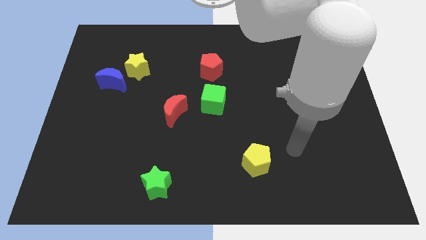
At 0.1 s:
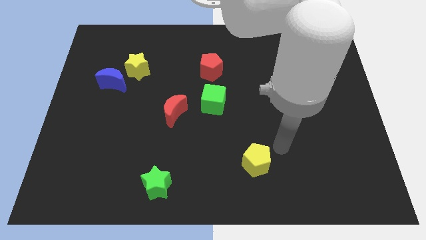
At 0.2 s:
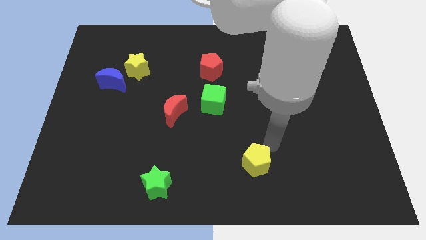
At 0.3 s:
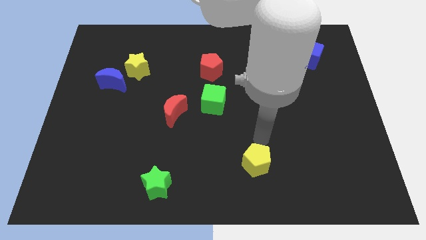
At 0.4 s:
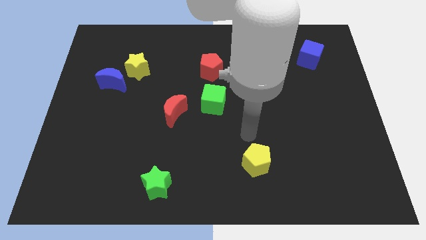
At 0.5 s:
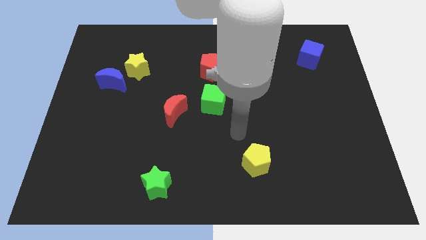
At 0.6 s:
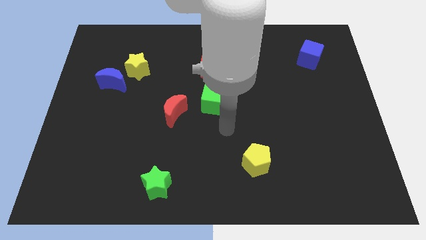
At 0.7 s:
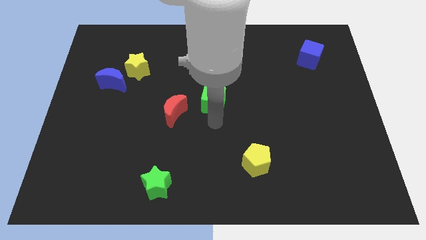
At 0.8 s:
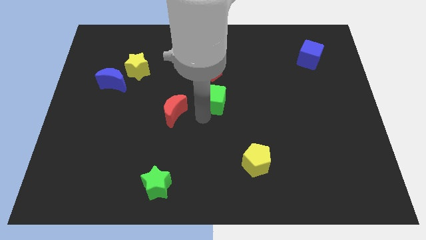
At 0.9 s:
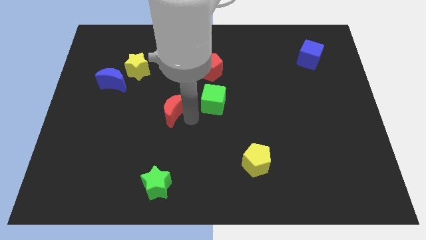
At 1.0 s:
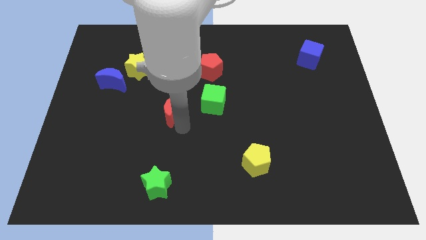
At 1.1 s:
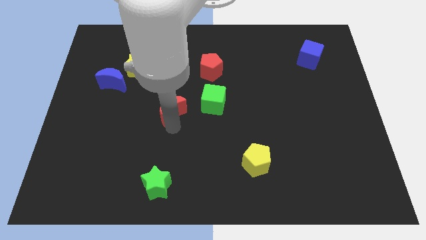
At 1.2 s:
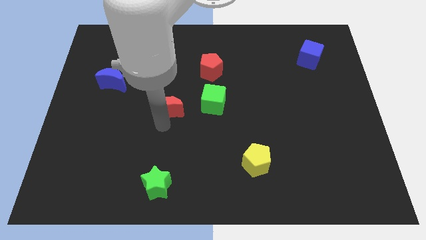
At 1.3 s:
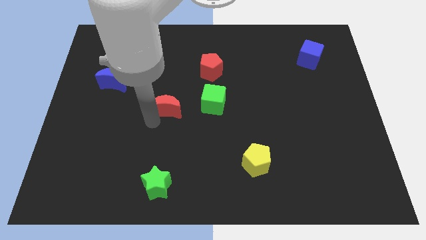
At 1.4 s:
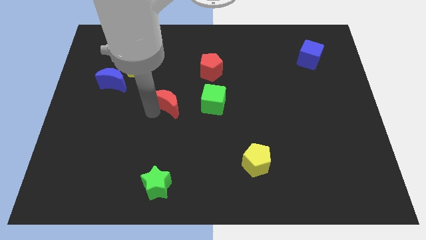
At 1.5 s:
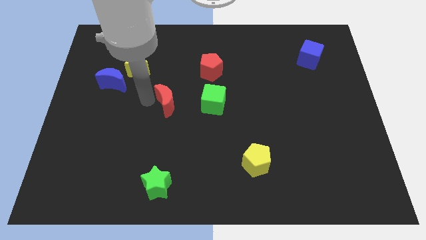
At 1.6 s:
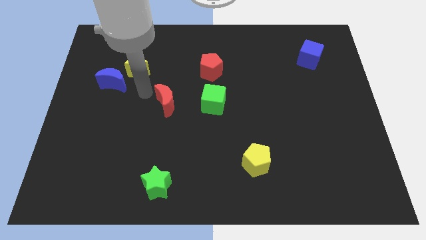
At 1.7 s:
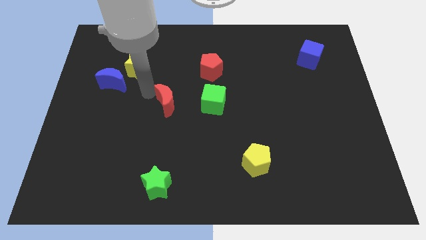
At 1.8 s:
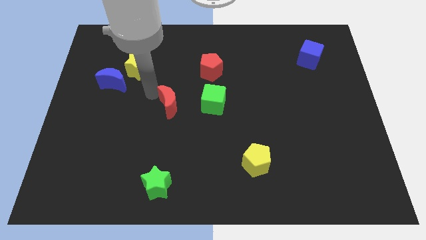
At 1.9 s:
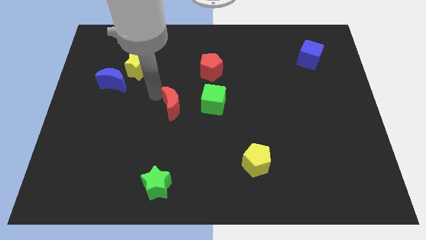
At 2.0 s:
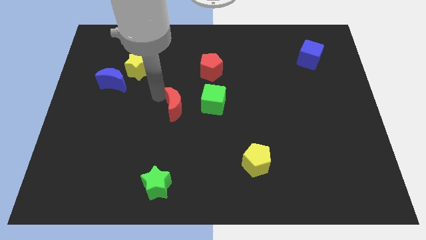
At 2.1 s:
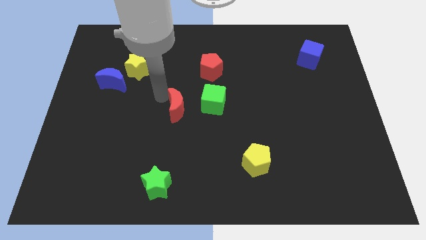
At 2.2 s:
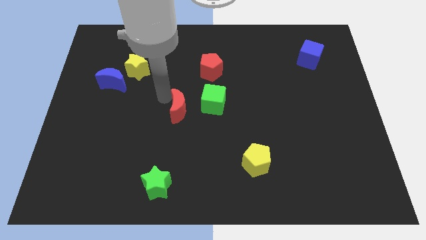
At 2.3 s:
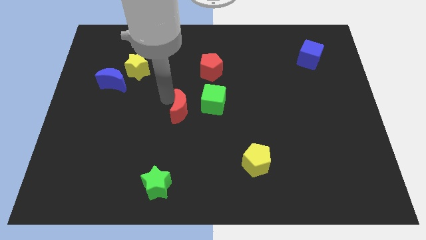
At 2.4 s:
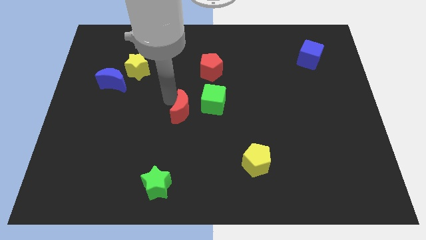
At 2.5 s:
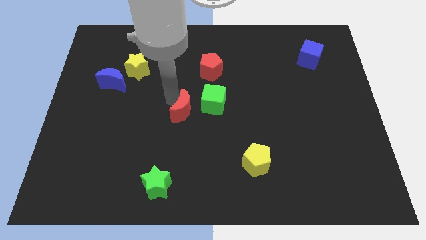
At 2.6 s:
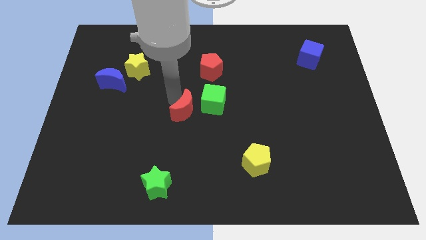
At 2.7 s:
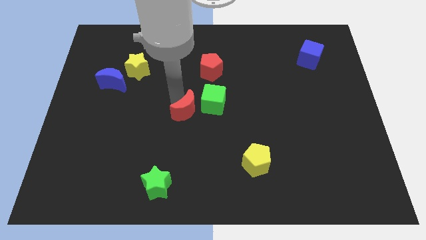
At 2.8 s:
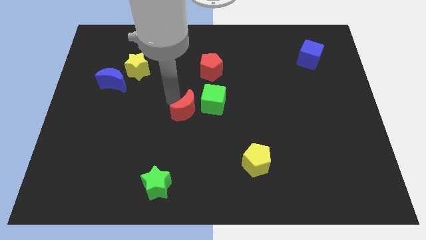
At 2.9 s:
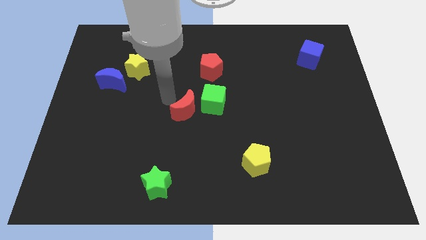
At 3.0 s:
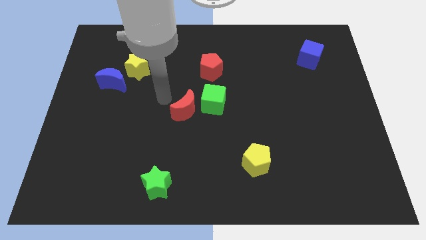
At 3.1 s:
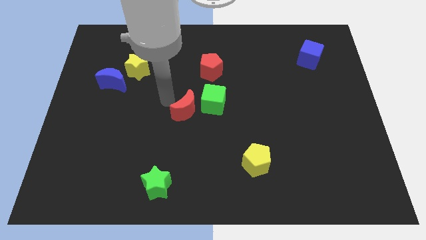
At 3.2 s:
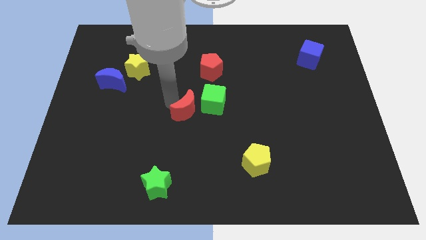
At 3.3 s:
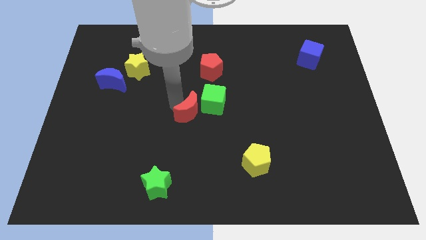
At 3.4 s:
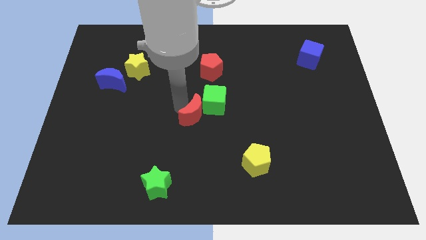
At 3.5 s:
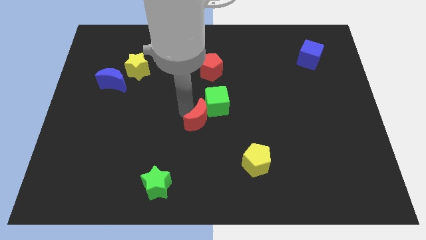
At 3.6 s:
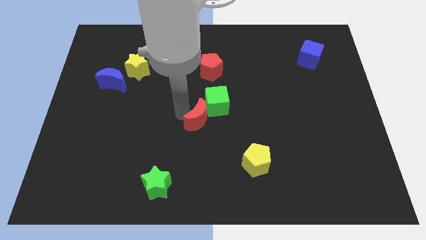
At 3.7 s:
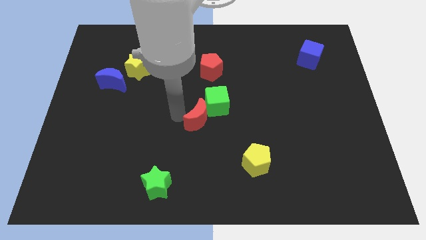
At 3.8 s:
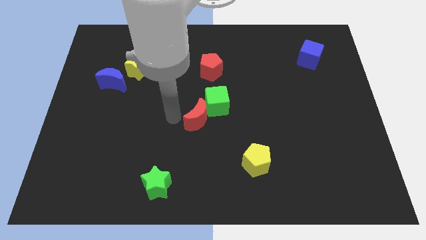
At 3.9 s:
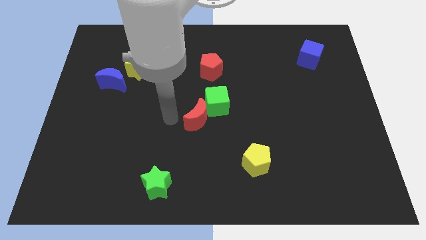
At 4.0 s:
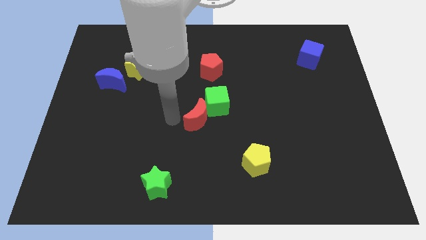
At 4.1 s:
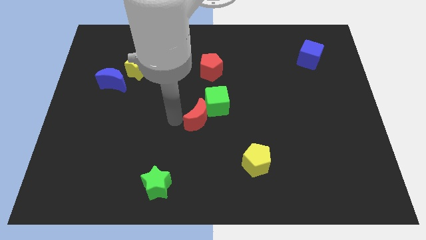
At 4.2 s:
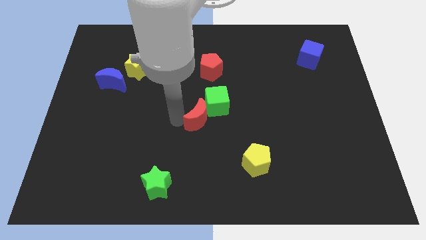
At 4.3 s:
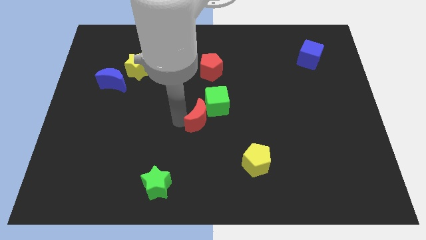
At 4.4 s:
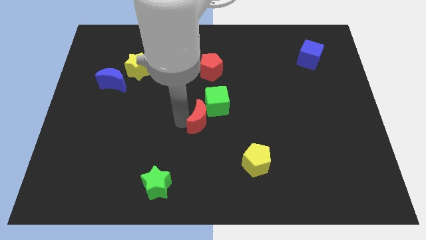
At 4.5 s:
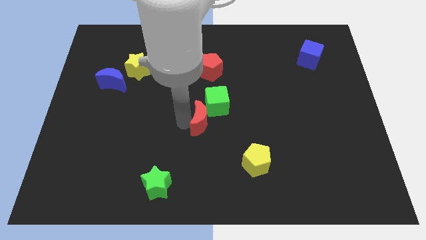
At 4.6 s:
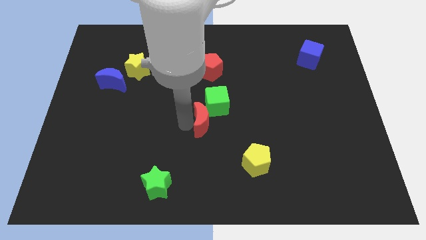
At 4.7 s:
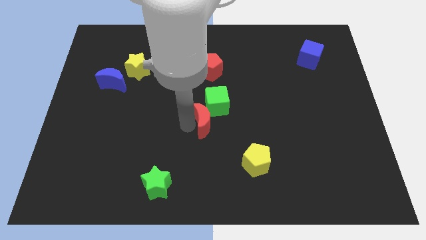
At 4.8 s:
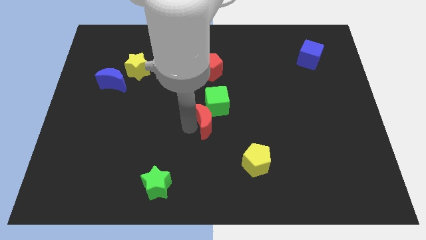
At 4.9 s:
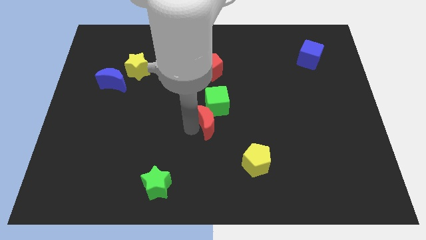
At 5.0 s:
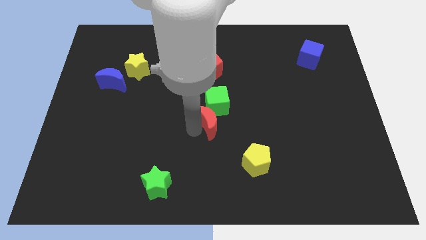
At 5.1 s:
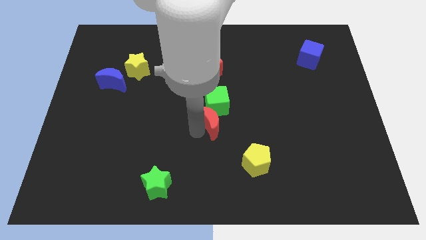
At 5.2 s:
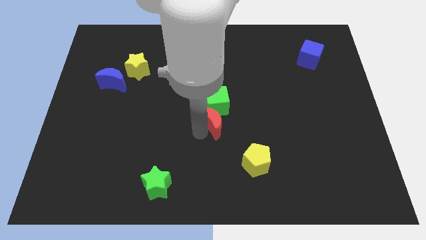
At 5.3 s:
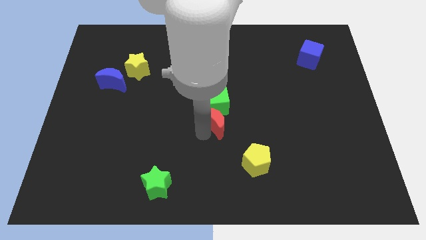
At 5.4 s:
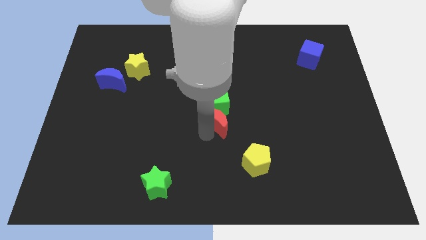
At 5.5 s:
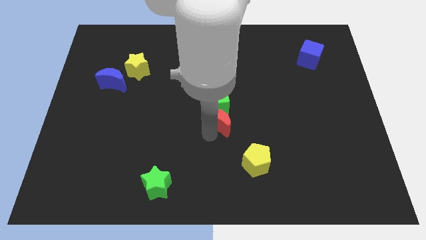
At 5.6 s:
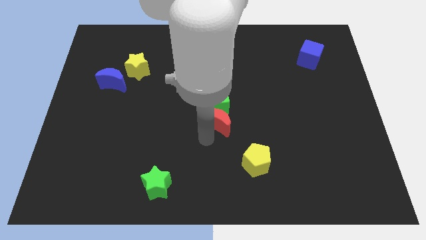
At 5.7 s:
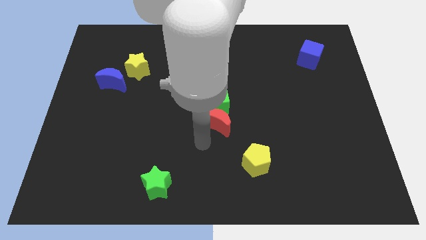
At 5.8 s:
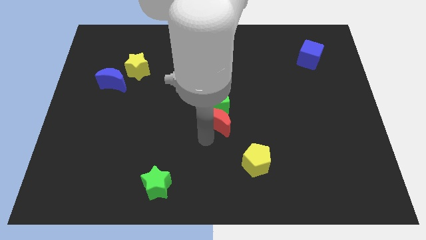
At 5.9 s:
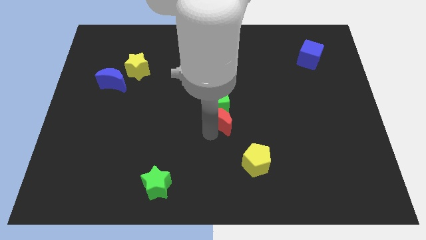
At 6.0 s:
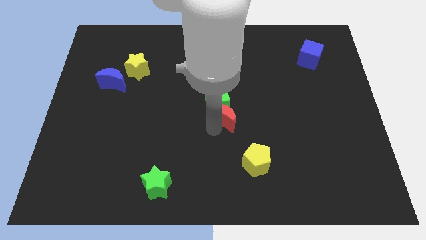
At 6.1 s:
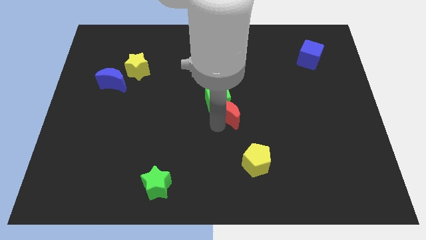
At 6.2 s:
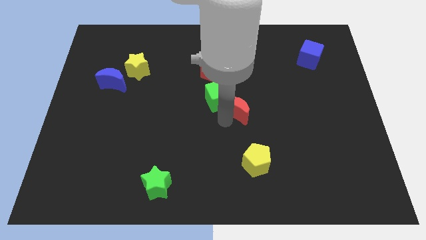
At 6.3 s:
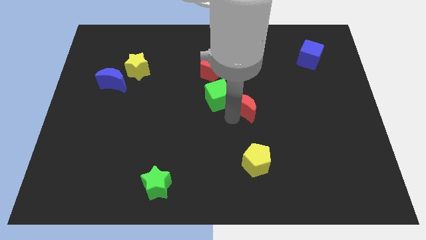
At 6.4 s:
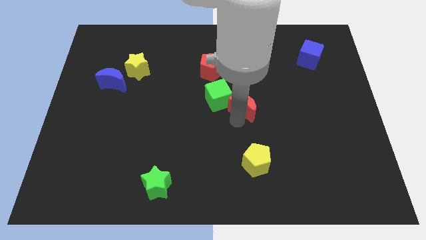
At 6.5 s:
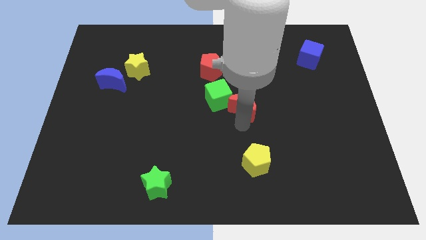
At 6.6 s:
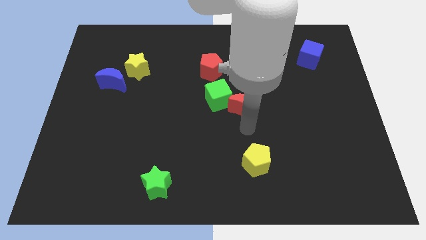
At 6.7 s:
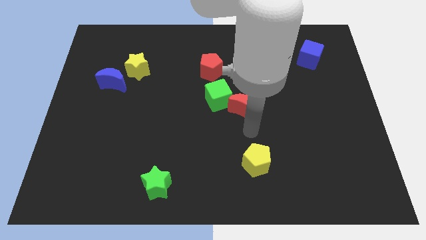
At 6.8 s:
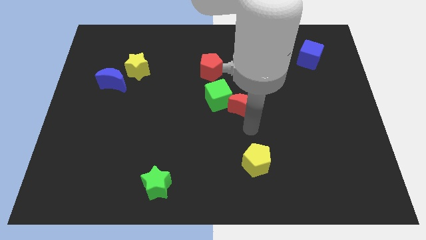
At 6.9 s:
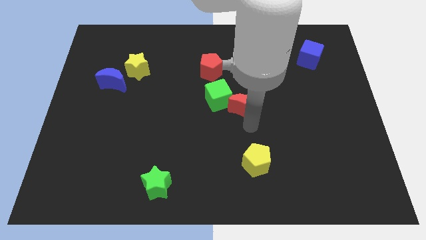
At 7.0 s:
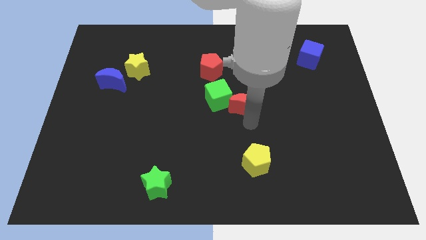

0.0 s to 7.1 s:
push the red moon upwards and then right a little bit

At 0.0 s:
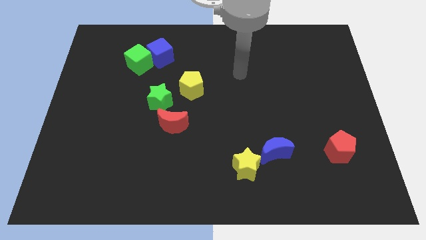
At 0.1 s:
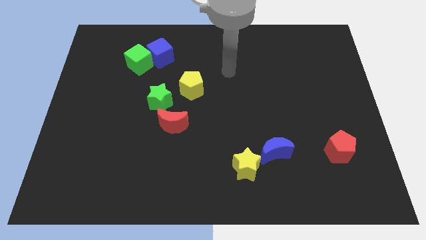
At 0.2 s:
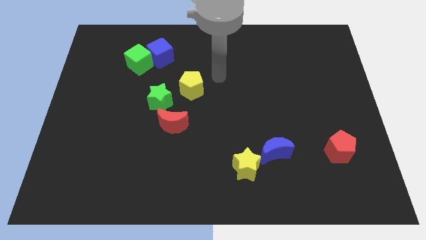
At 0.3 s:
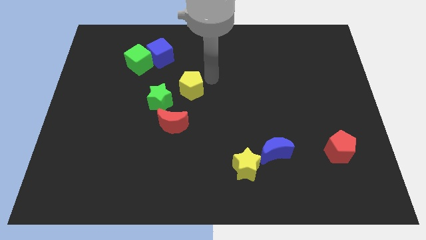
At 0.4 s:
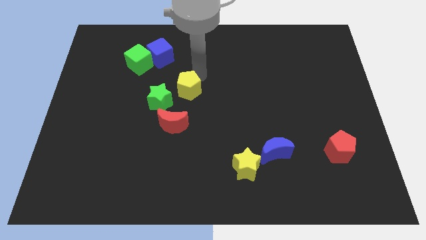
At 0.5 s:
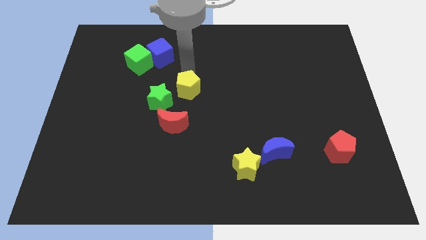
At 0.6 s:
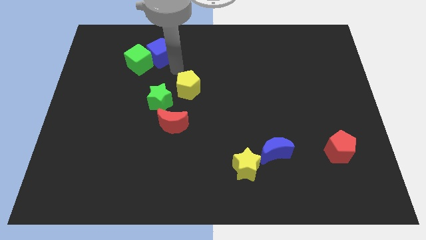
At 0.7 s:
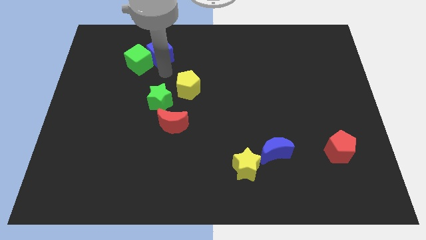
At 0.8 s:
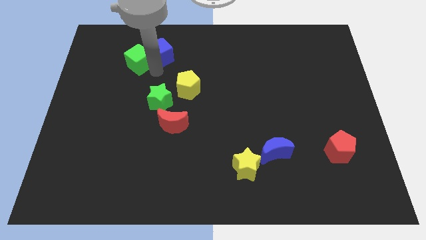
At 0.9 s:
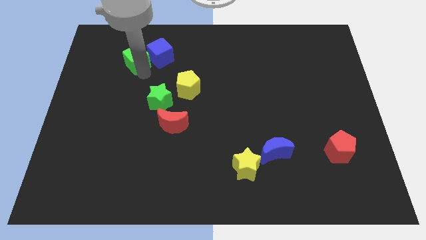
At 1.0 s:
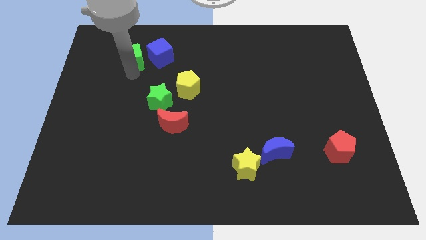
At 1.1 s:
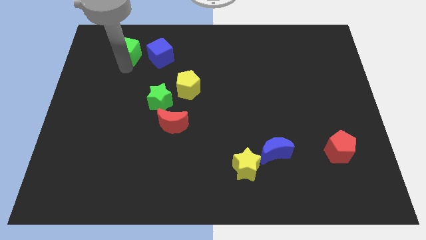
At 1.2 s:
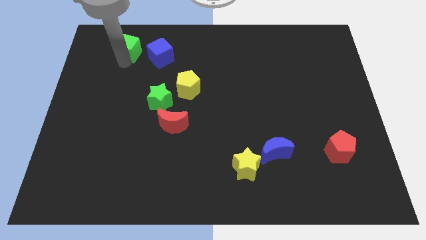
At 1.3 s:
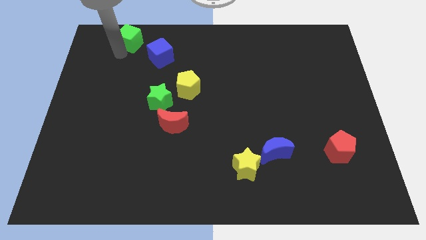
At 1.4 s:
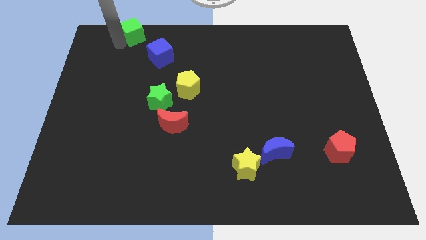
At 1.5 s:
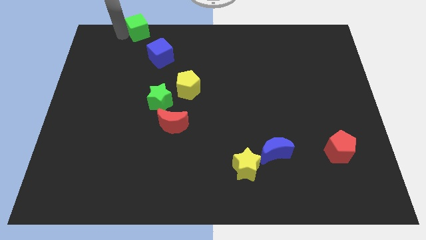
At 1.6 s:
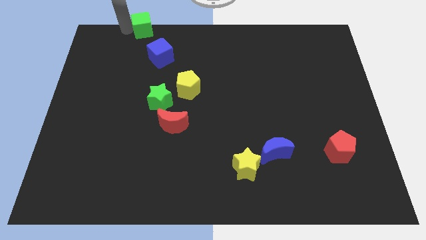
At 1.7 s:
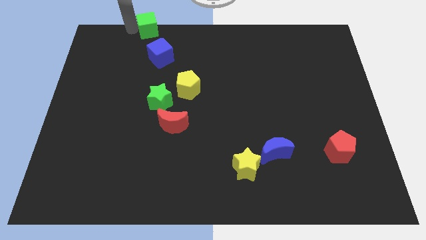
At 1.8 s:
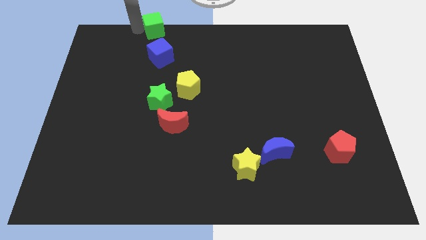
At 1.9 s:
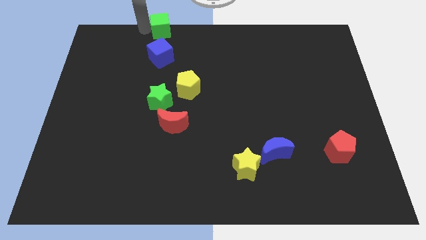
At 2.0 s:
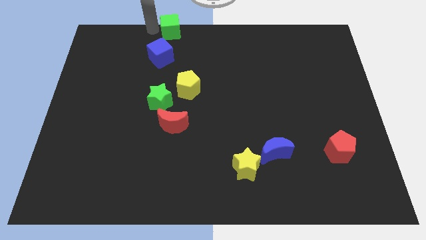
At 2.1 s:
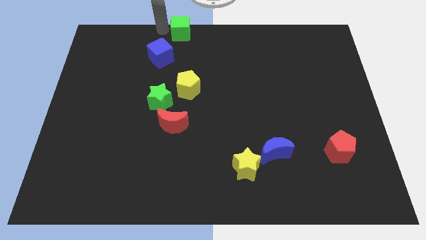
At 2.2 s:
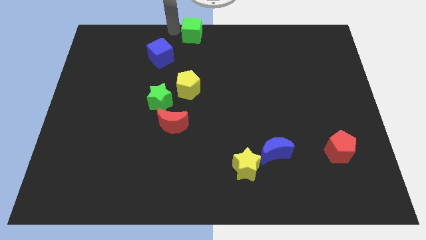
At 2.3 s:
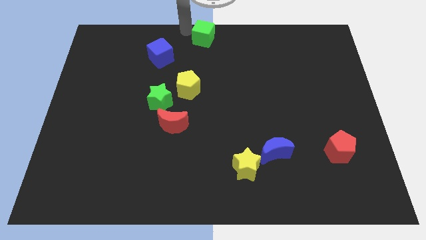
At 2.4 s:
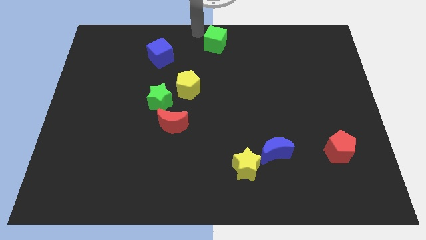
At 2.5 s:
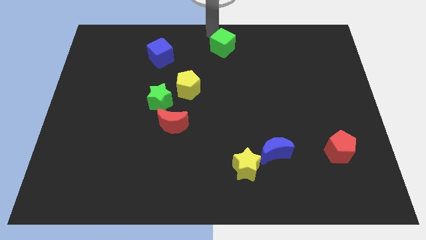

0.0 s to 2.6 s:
push the green cube to the right
